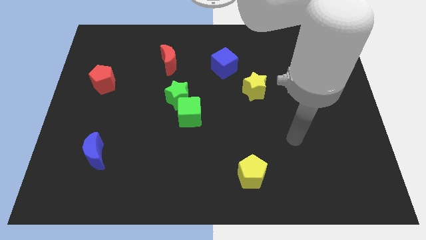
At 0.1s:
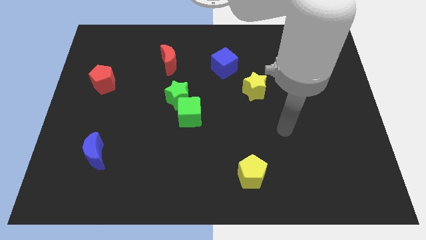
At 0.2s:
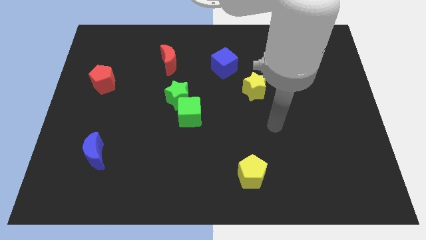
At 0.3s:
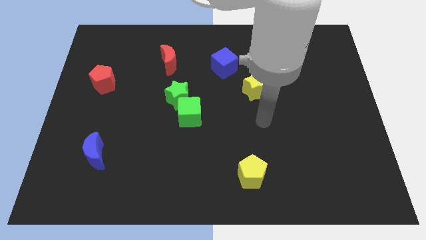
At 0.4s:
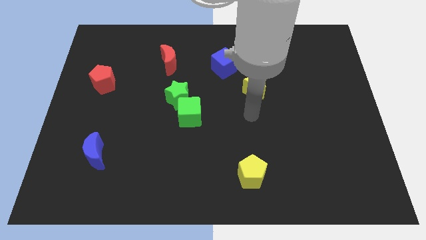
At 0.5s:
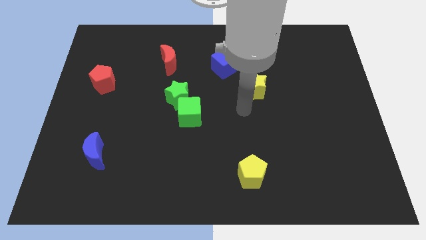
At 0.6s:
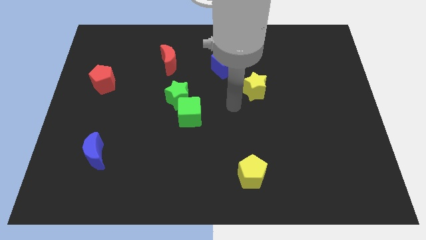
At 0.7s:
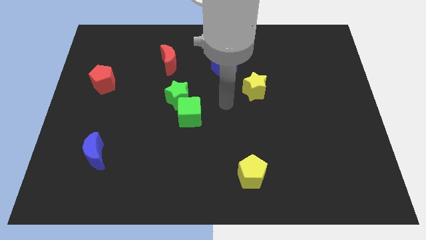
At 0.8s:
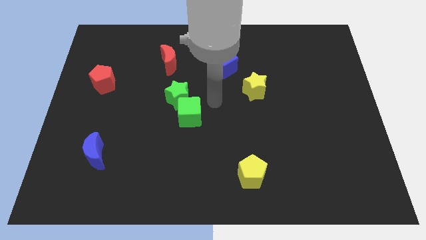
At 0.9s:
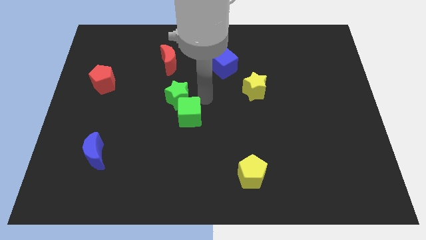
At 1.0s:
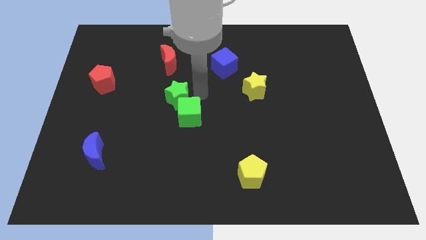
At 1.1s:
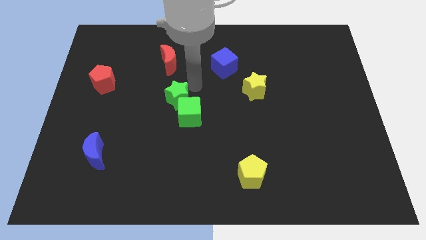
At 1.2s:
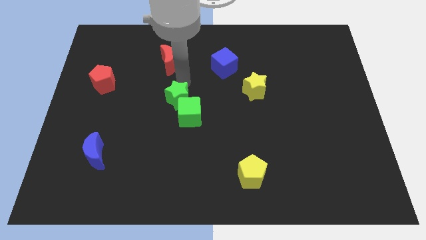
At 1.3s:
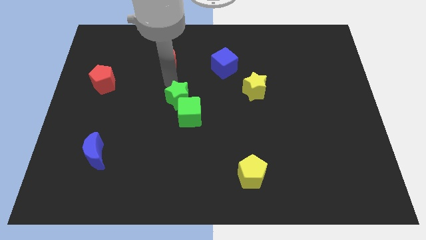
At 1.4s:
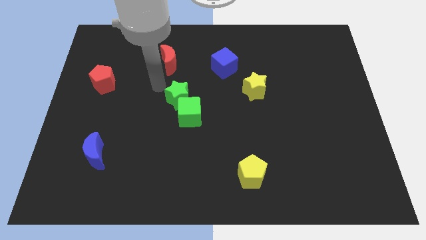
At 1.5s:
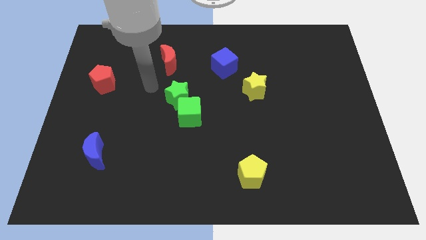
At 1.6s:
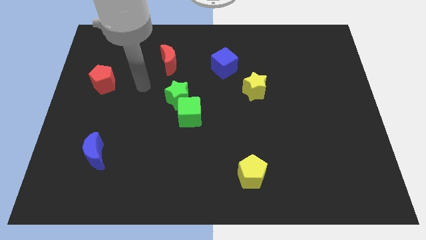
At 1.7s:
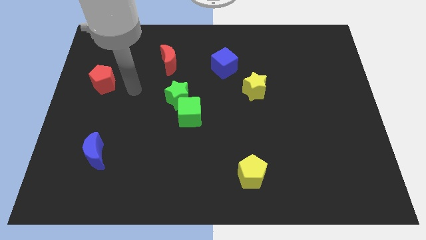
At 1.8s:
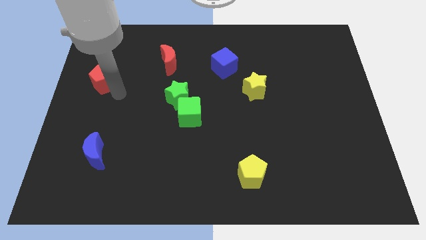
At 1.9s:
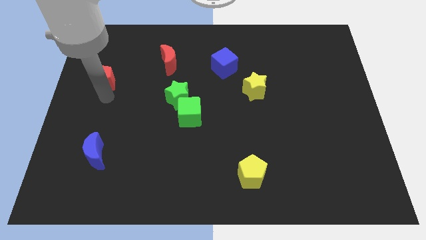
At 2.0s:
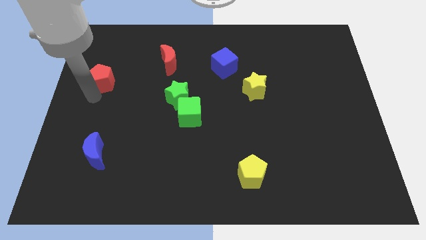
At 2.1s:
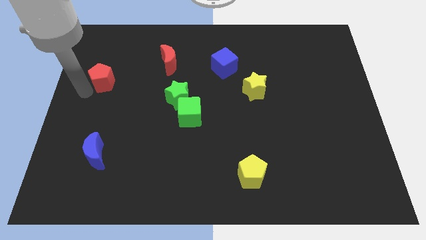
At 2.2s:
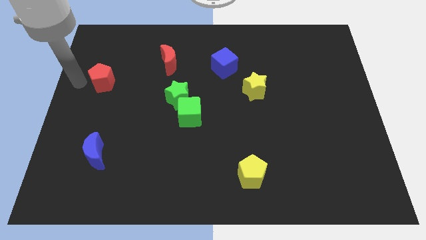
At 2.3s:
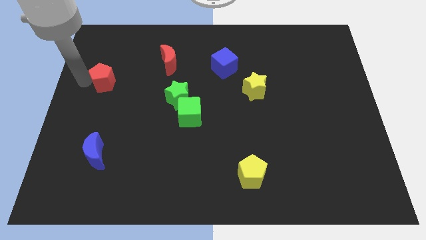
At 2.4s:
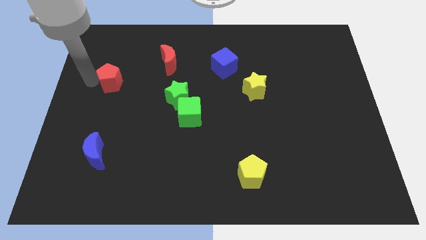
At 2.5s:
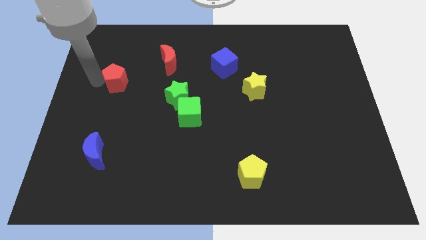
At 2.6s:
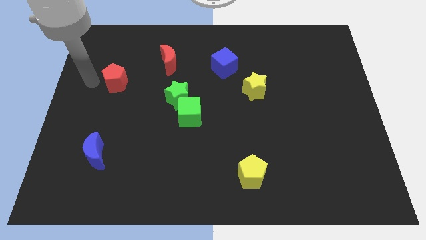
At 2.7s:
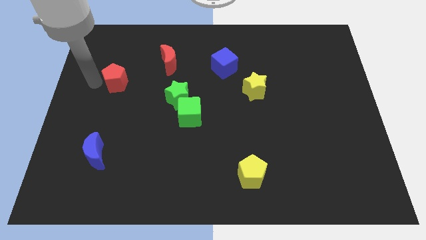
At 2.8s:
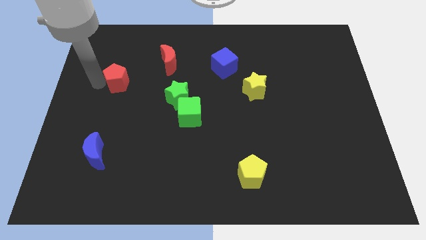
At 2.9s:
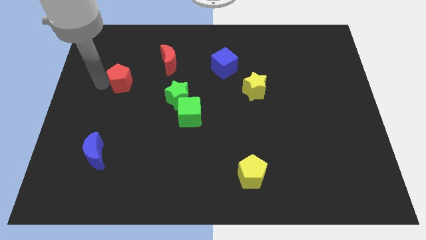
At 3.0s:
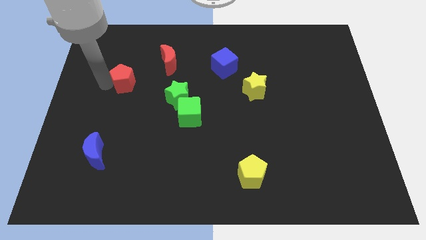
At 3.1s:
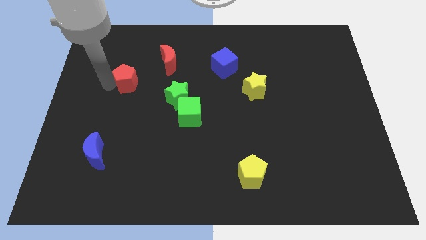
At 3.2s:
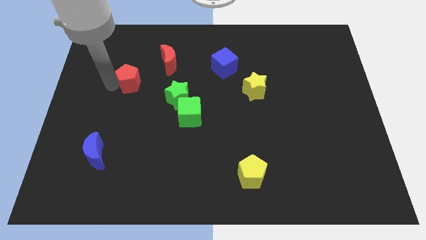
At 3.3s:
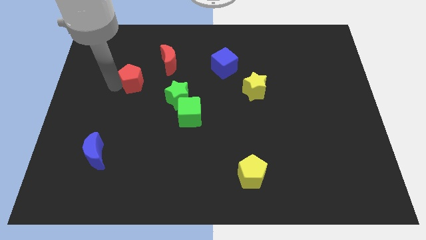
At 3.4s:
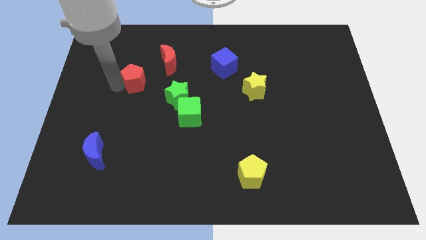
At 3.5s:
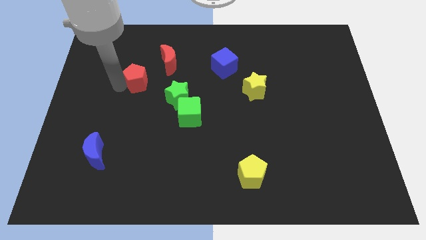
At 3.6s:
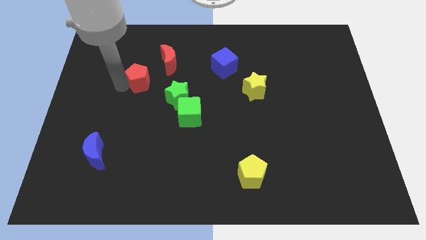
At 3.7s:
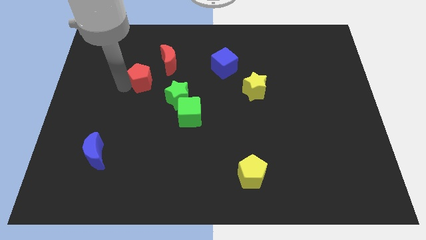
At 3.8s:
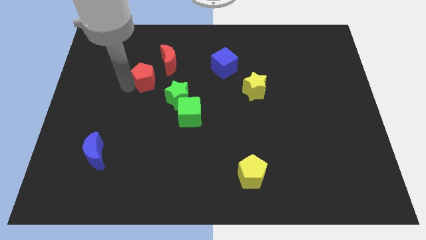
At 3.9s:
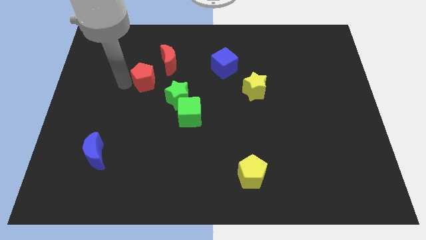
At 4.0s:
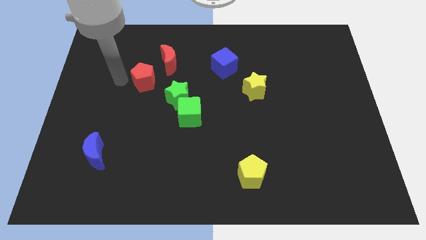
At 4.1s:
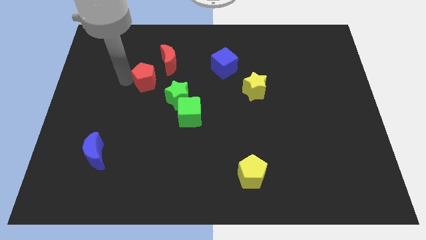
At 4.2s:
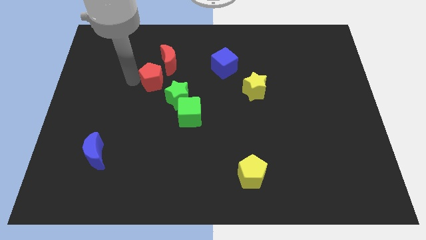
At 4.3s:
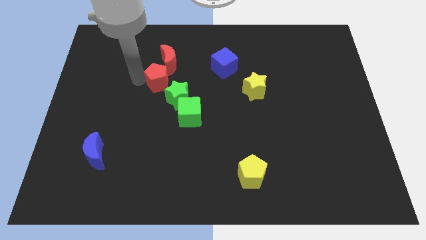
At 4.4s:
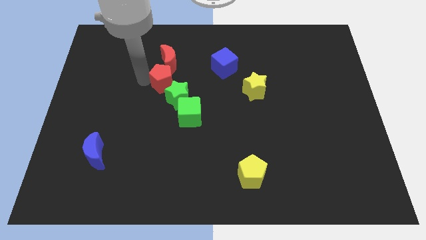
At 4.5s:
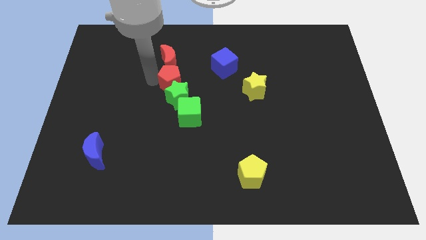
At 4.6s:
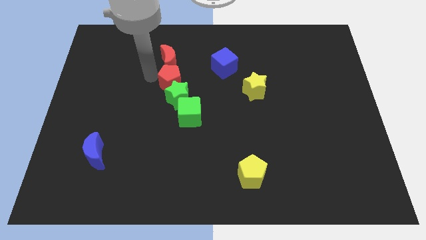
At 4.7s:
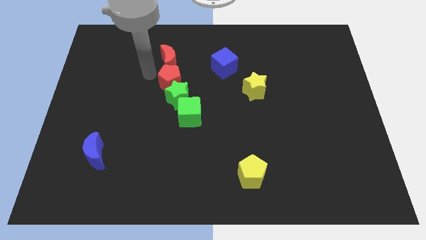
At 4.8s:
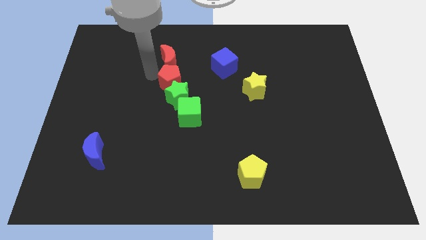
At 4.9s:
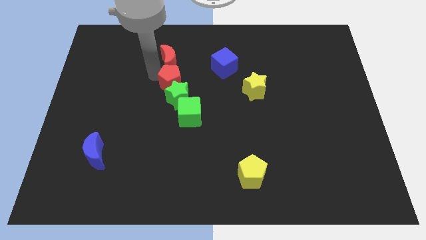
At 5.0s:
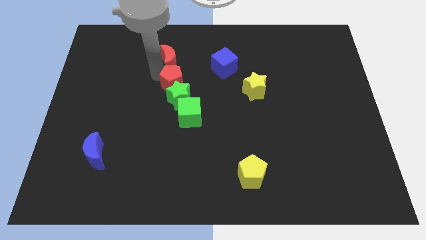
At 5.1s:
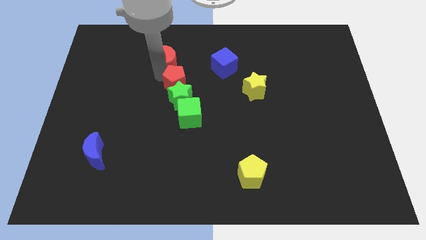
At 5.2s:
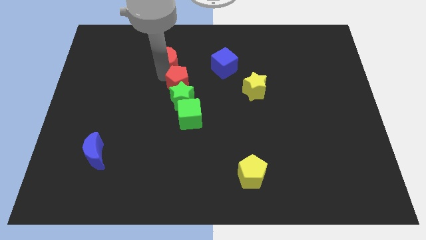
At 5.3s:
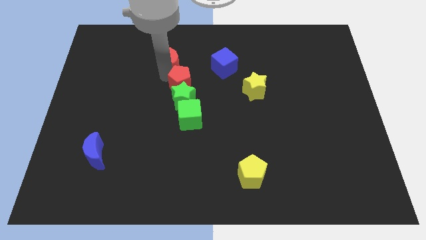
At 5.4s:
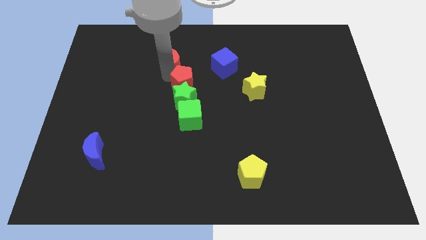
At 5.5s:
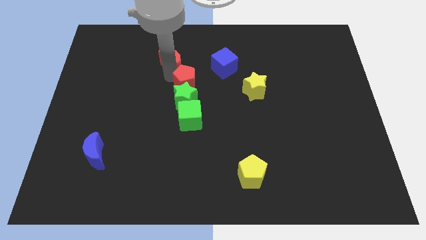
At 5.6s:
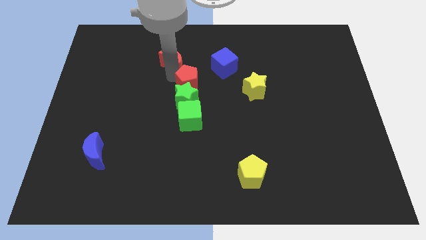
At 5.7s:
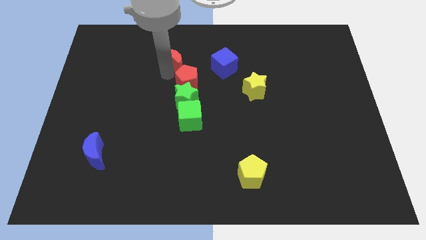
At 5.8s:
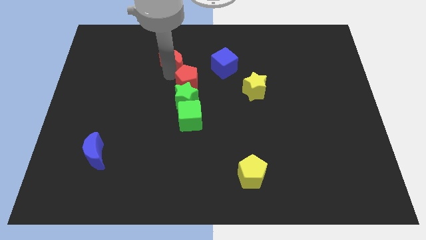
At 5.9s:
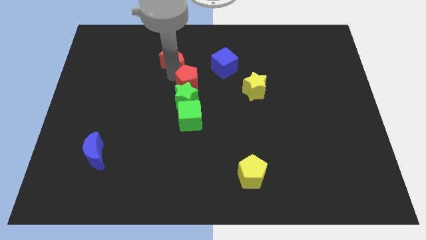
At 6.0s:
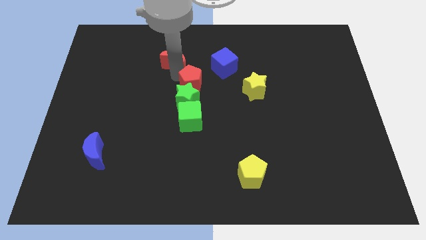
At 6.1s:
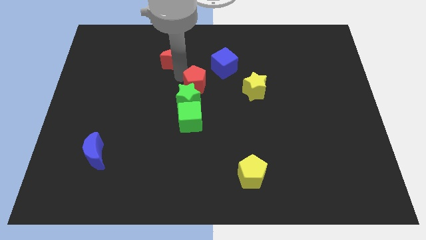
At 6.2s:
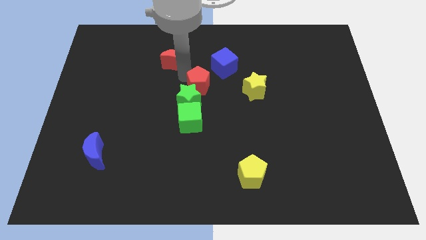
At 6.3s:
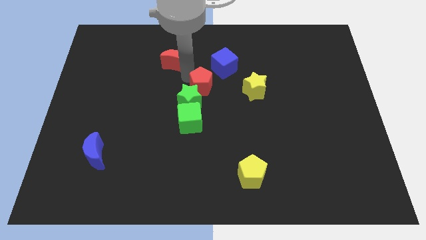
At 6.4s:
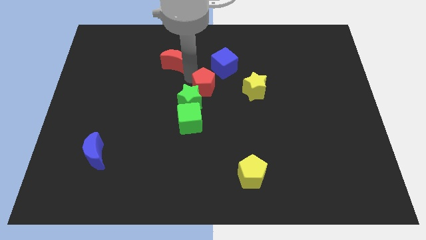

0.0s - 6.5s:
push the red pentagon to the bottom of the blue cube

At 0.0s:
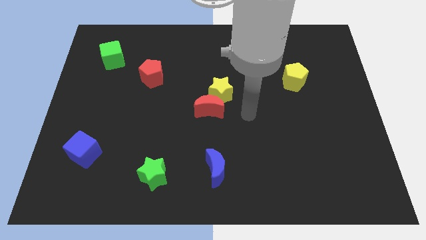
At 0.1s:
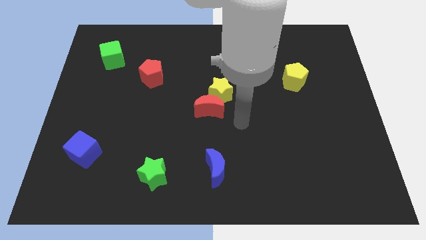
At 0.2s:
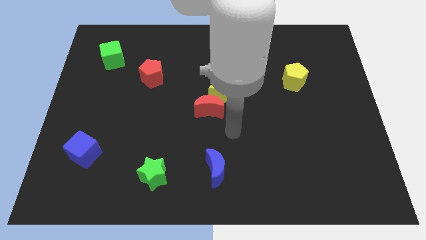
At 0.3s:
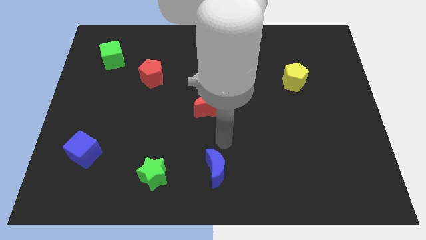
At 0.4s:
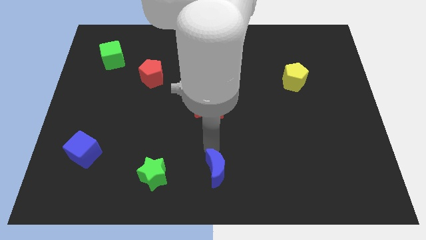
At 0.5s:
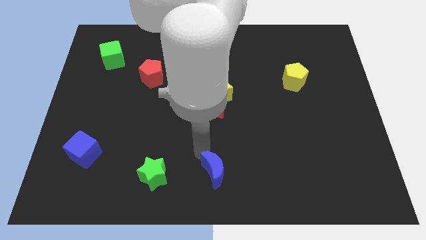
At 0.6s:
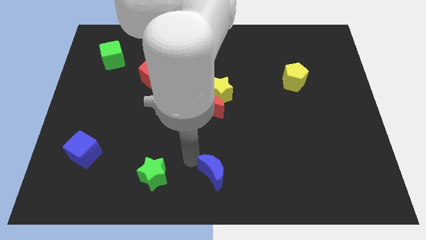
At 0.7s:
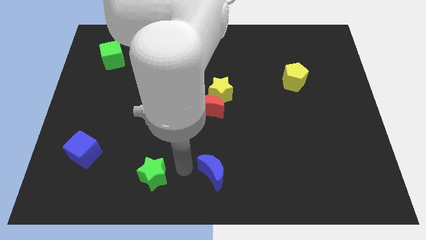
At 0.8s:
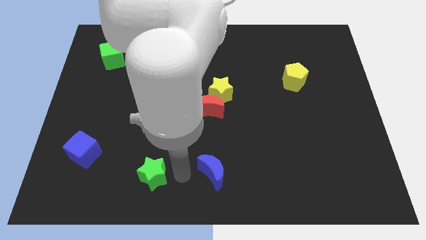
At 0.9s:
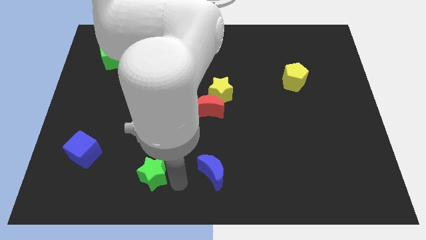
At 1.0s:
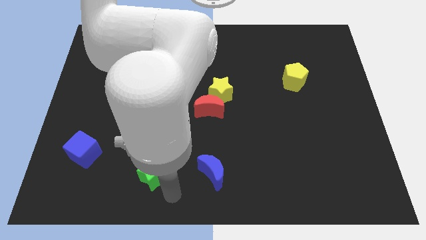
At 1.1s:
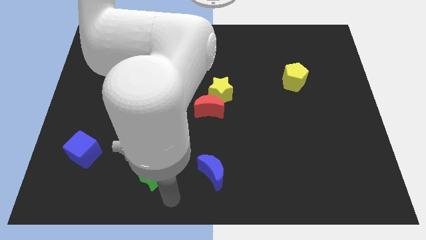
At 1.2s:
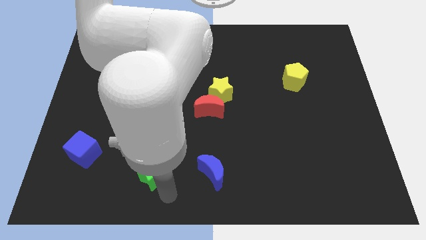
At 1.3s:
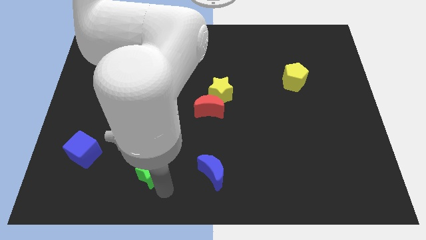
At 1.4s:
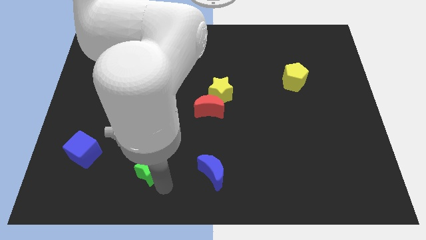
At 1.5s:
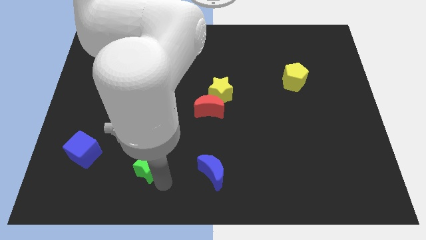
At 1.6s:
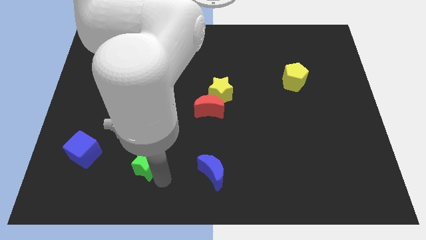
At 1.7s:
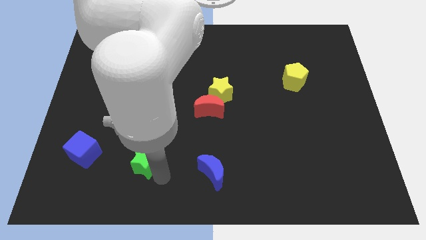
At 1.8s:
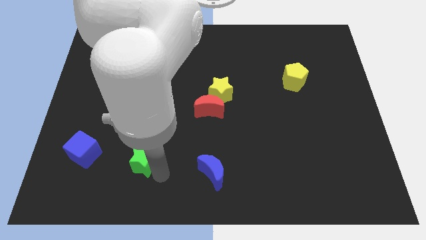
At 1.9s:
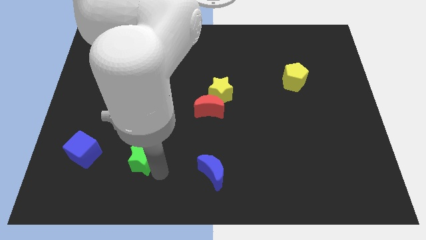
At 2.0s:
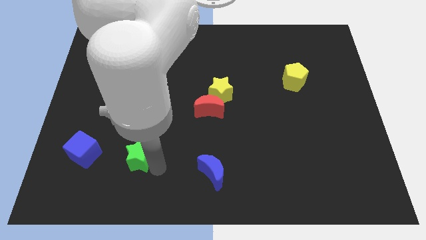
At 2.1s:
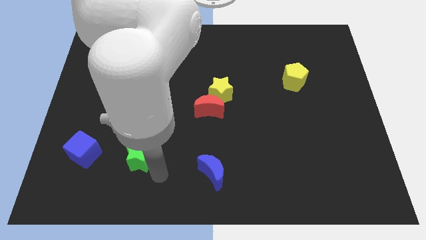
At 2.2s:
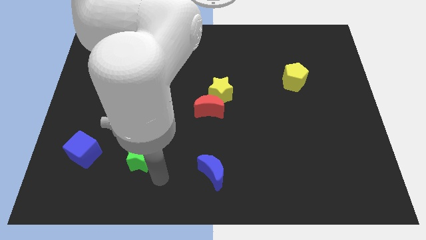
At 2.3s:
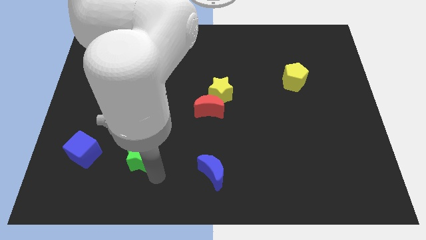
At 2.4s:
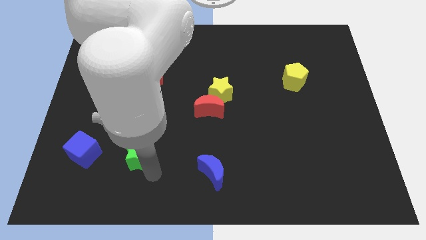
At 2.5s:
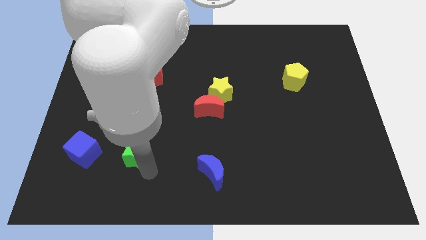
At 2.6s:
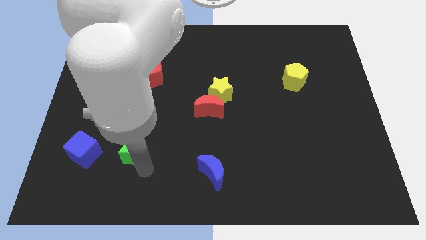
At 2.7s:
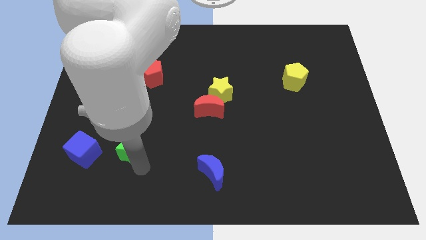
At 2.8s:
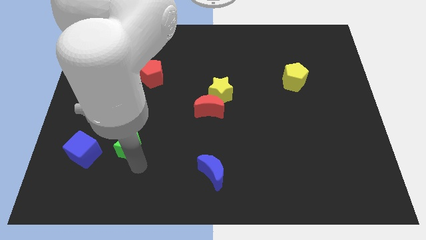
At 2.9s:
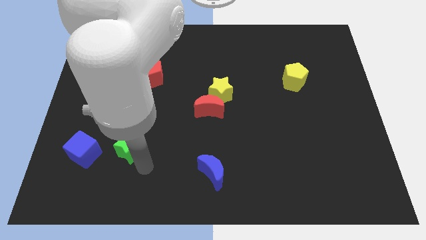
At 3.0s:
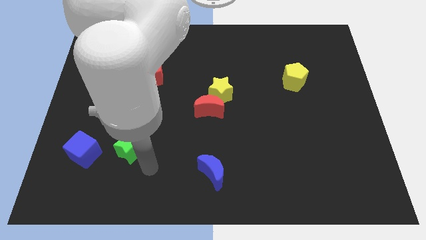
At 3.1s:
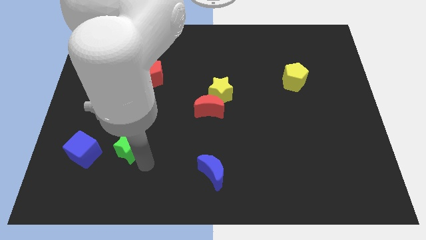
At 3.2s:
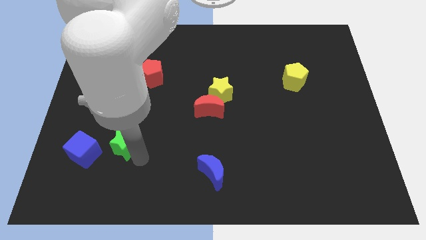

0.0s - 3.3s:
push the green star to the top right of the blue cube
